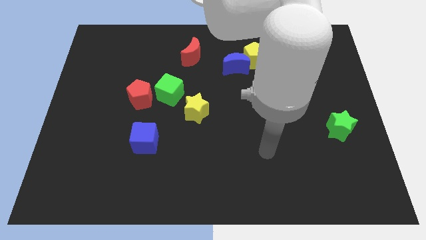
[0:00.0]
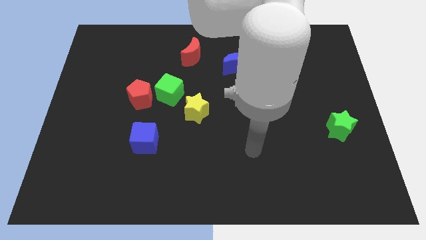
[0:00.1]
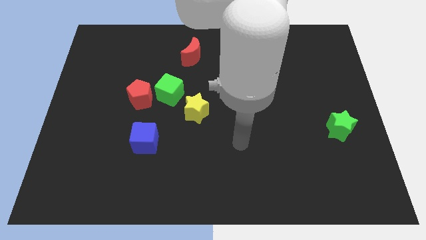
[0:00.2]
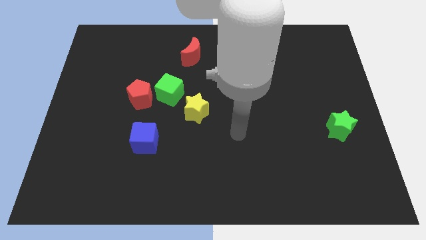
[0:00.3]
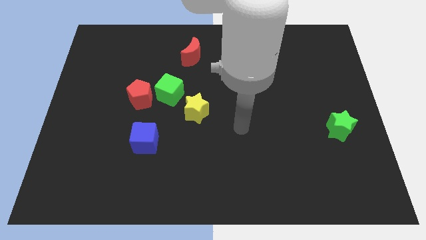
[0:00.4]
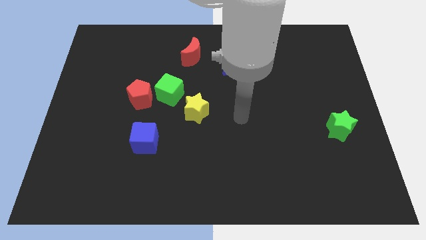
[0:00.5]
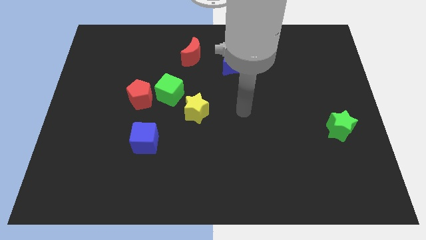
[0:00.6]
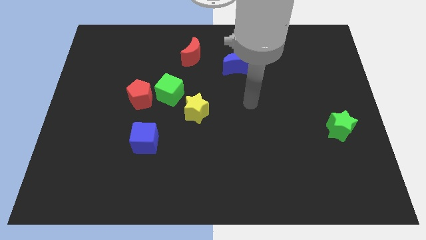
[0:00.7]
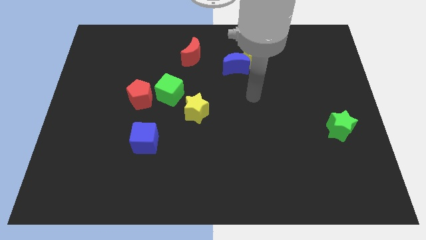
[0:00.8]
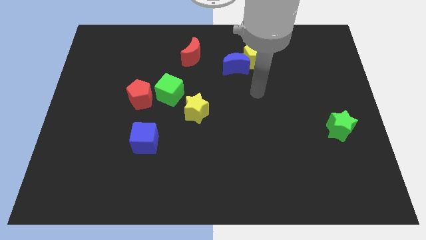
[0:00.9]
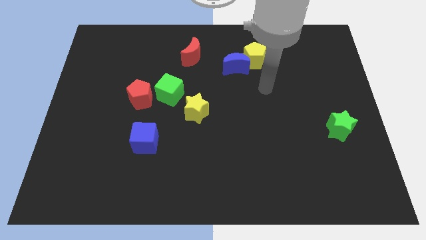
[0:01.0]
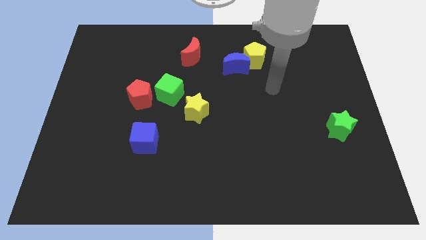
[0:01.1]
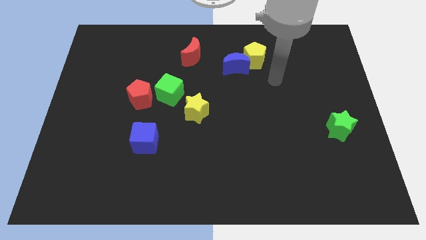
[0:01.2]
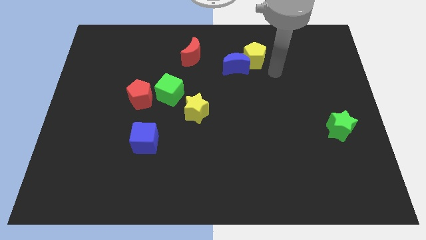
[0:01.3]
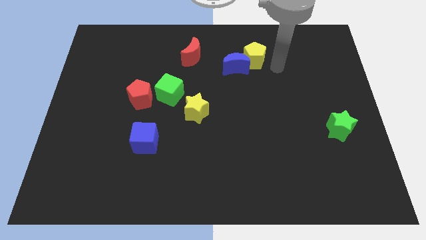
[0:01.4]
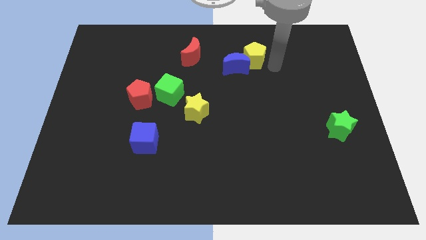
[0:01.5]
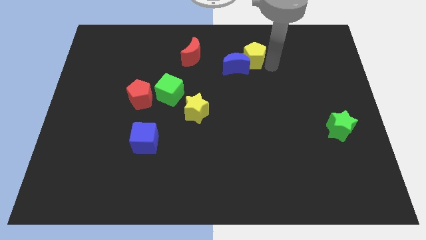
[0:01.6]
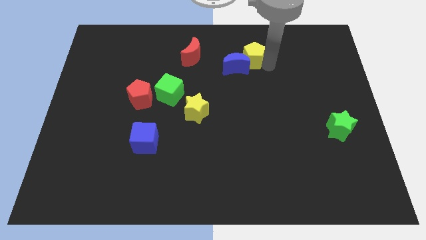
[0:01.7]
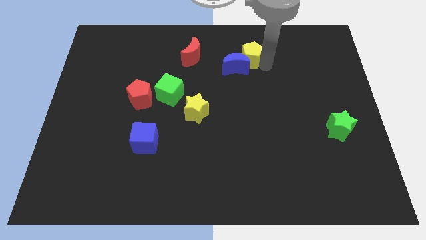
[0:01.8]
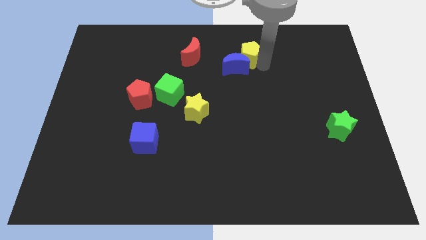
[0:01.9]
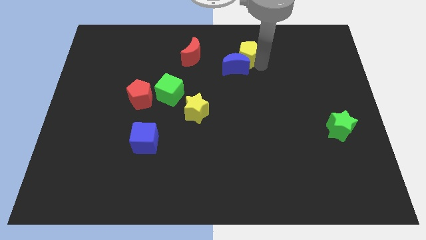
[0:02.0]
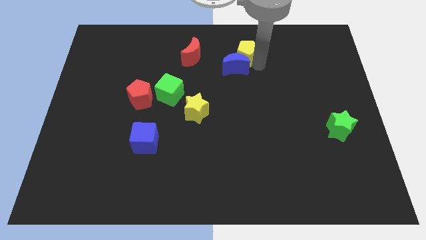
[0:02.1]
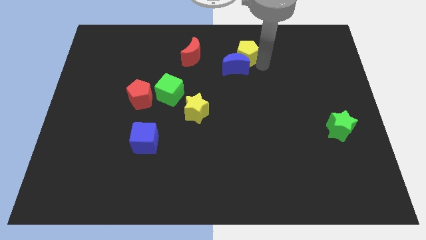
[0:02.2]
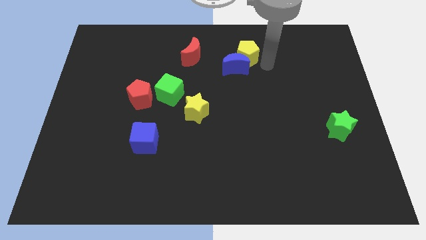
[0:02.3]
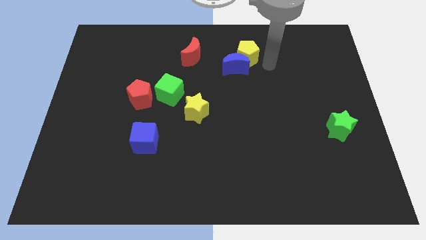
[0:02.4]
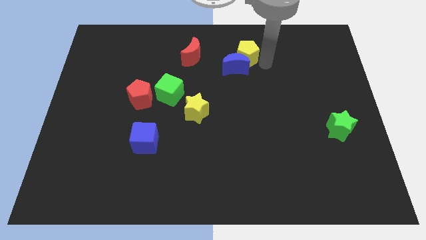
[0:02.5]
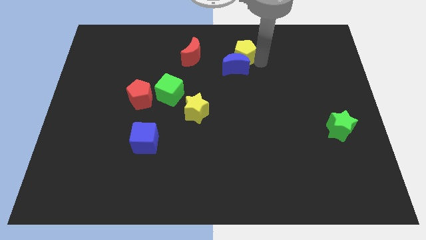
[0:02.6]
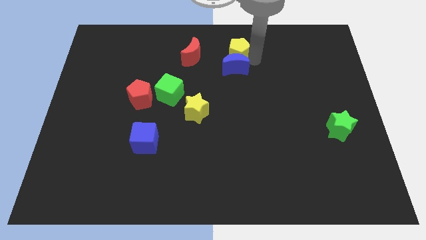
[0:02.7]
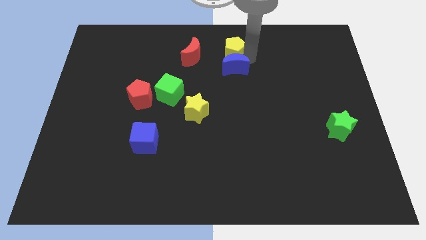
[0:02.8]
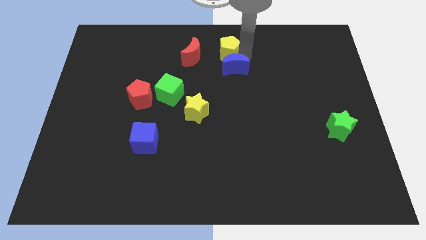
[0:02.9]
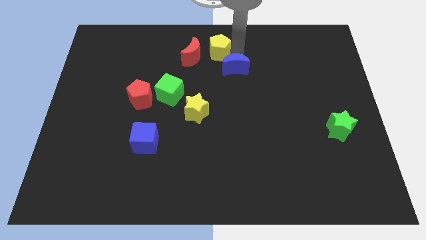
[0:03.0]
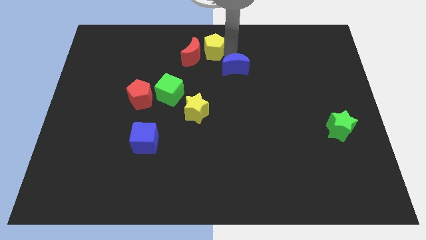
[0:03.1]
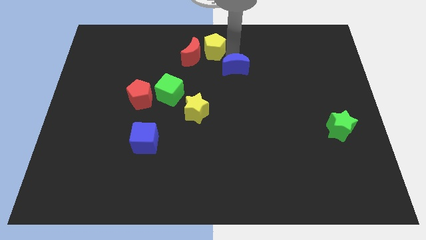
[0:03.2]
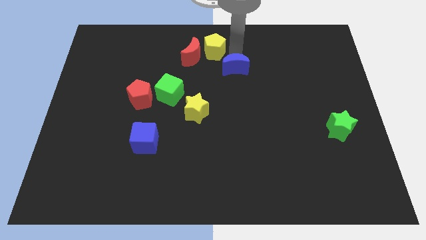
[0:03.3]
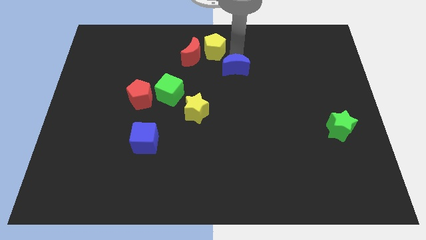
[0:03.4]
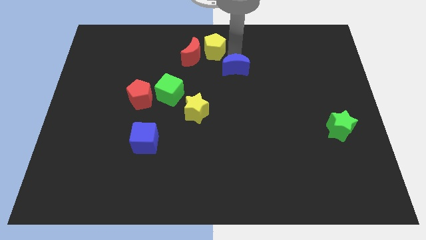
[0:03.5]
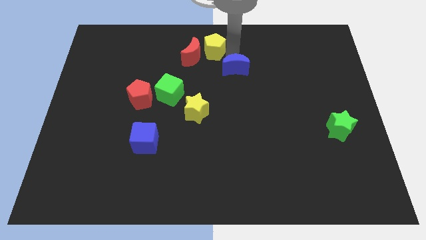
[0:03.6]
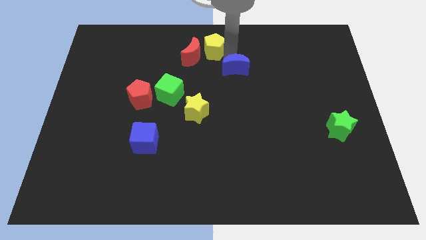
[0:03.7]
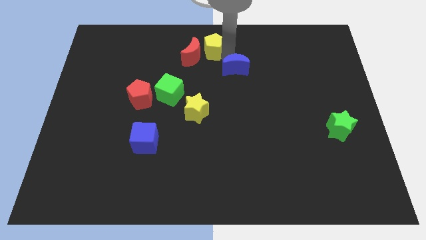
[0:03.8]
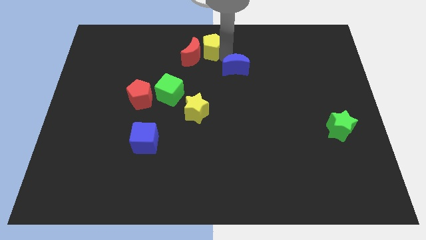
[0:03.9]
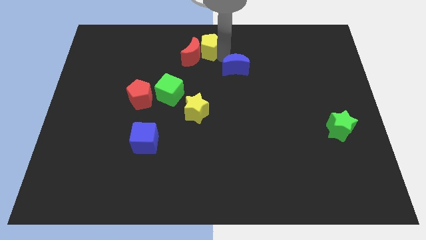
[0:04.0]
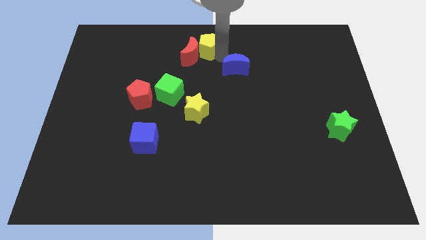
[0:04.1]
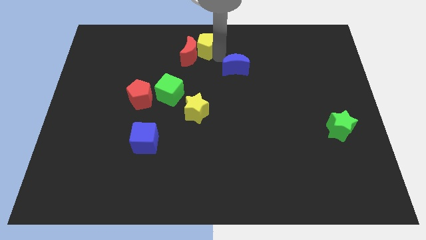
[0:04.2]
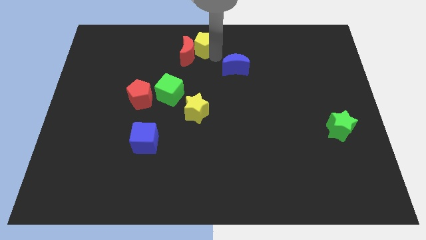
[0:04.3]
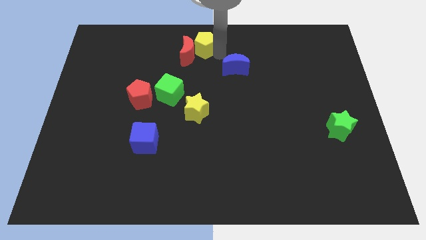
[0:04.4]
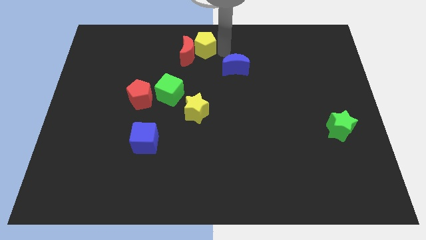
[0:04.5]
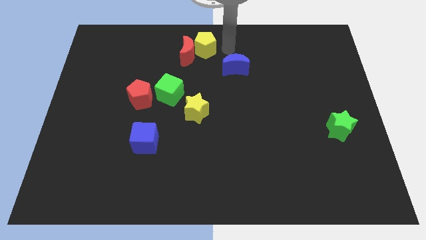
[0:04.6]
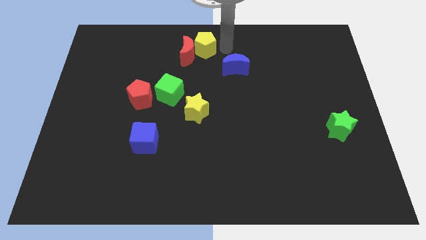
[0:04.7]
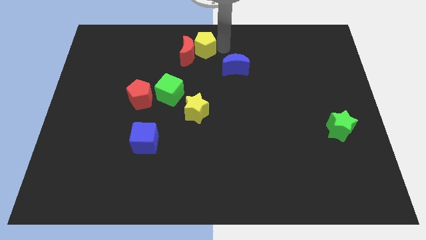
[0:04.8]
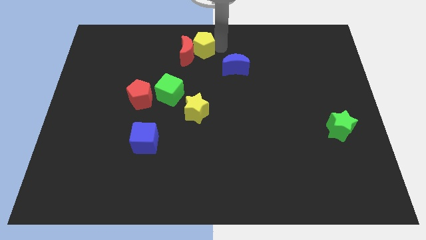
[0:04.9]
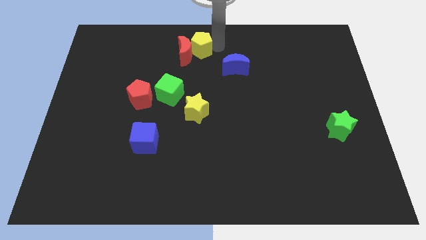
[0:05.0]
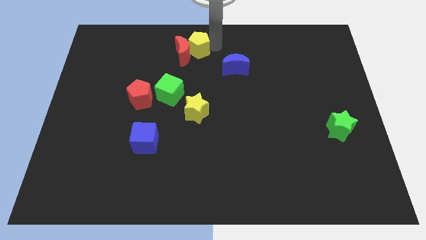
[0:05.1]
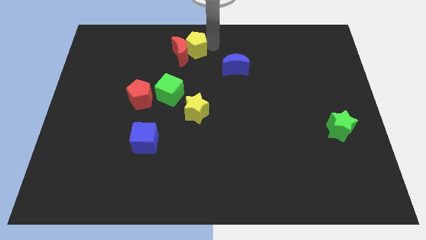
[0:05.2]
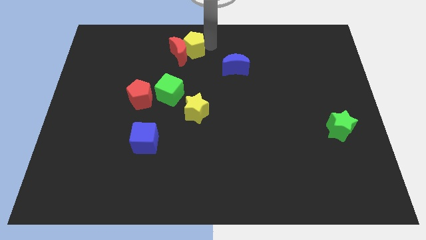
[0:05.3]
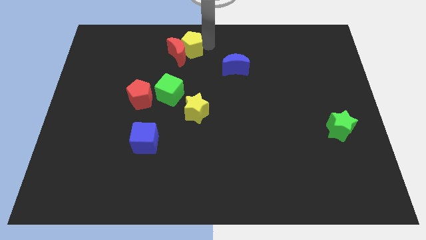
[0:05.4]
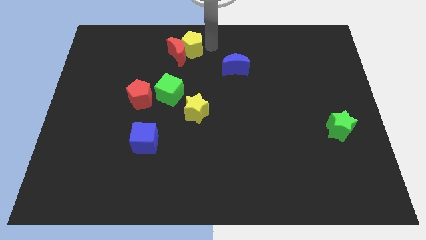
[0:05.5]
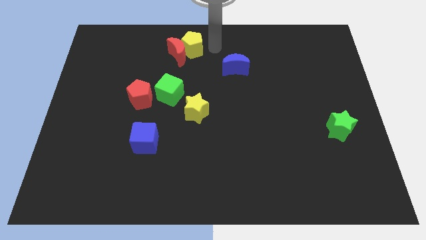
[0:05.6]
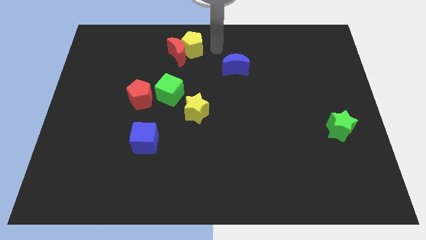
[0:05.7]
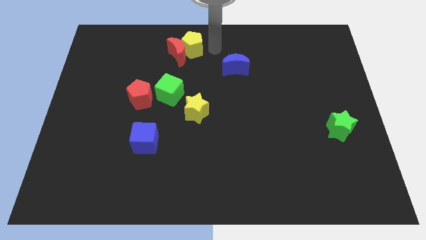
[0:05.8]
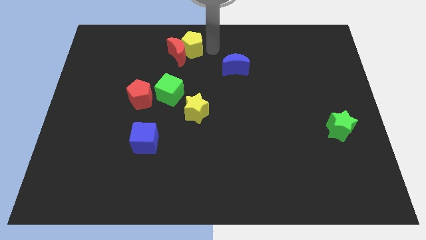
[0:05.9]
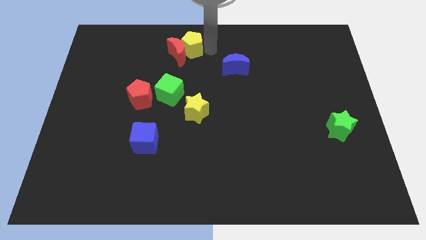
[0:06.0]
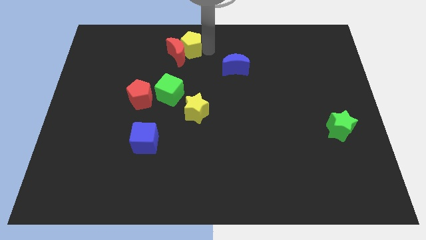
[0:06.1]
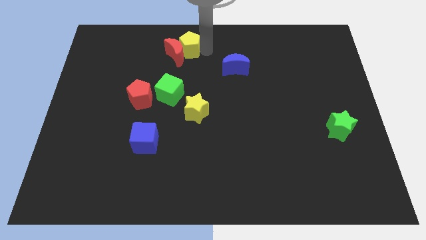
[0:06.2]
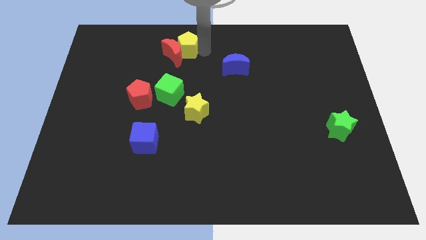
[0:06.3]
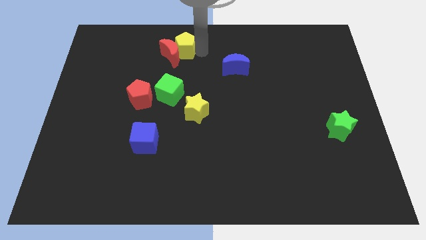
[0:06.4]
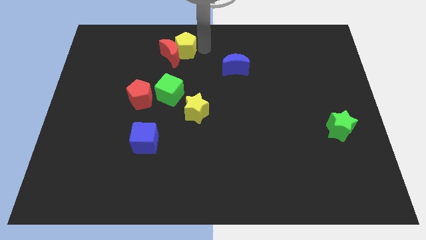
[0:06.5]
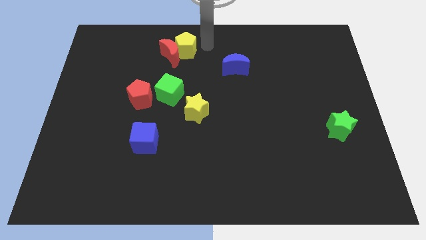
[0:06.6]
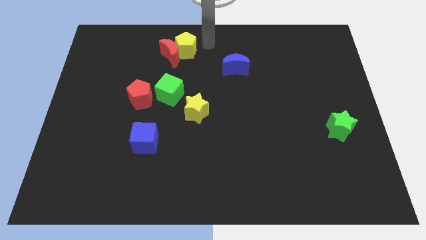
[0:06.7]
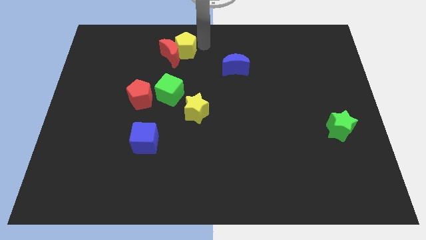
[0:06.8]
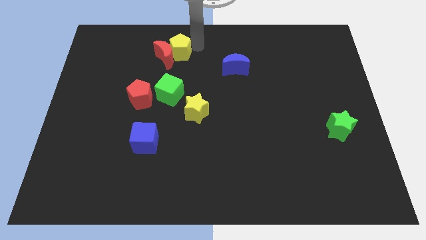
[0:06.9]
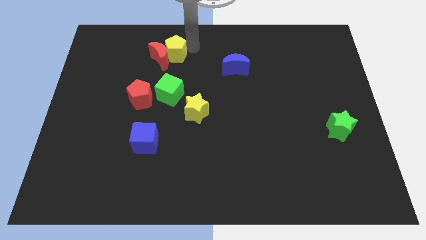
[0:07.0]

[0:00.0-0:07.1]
move the yellow pentagon to the left

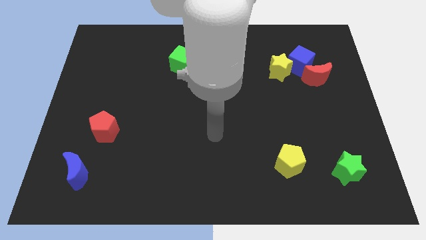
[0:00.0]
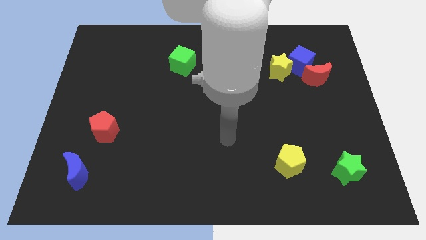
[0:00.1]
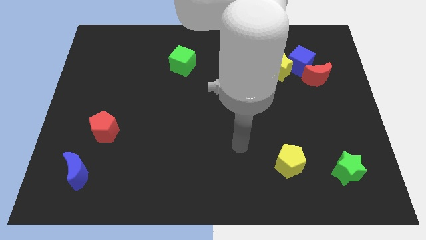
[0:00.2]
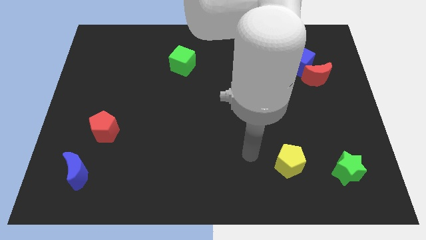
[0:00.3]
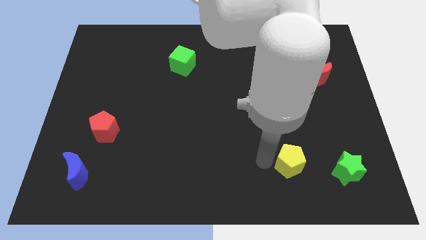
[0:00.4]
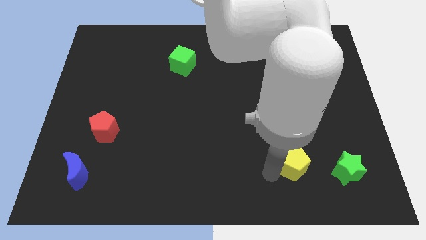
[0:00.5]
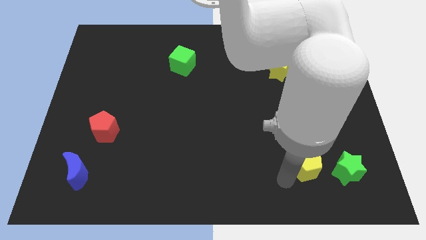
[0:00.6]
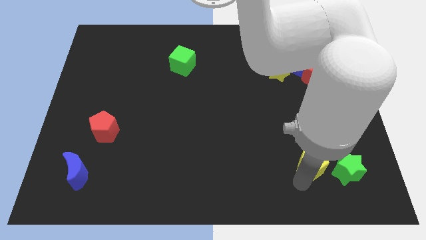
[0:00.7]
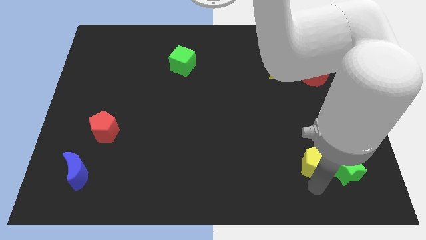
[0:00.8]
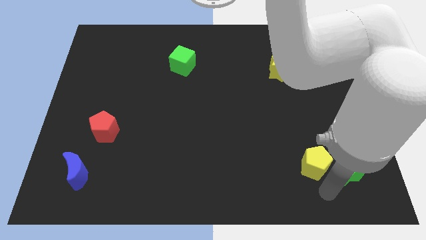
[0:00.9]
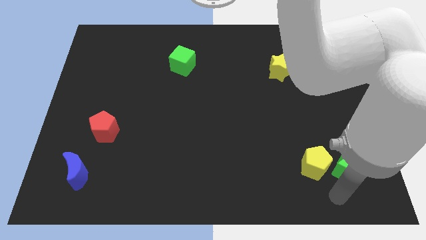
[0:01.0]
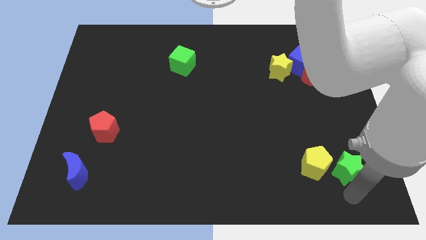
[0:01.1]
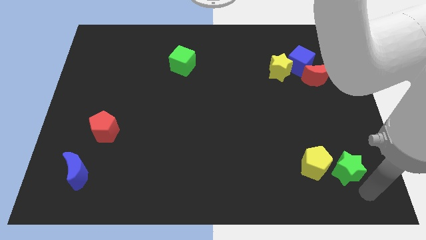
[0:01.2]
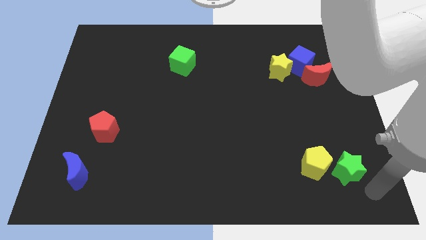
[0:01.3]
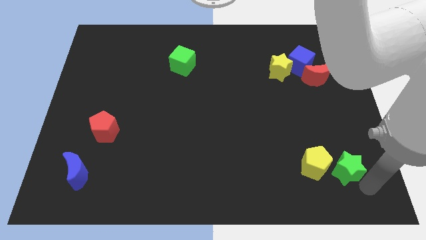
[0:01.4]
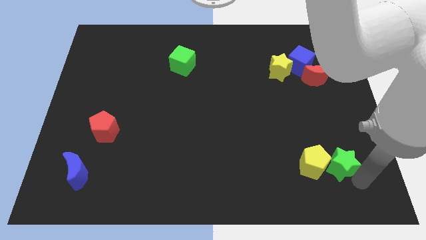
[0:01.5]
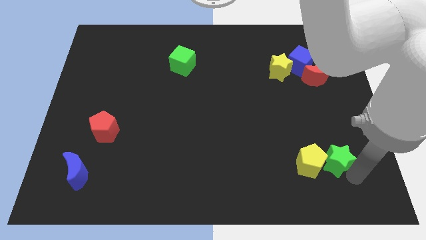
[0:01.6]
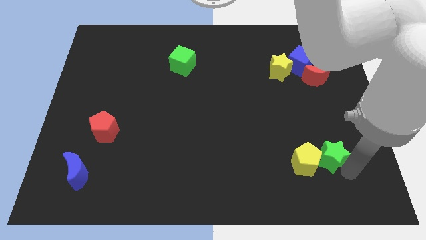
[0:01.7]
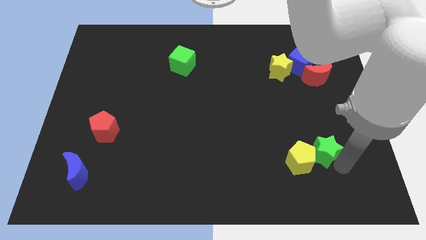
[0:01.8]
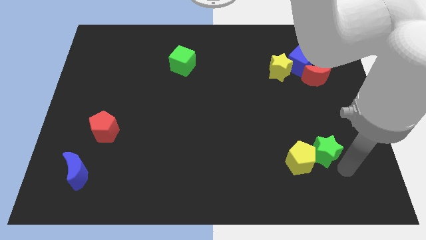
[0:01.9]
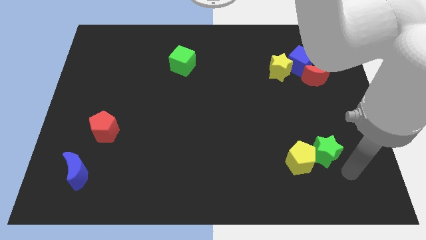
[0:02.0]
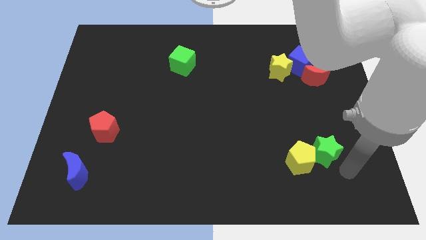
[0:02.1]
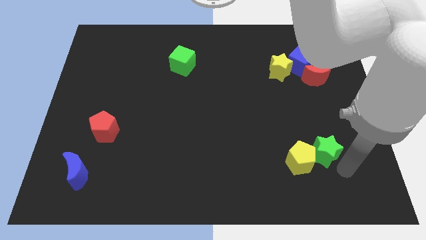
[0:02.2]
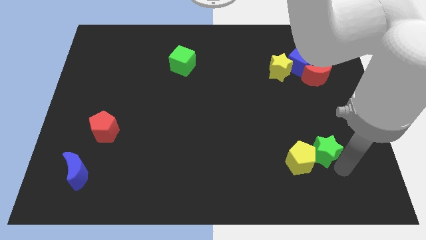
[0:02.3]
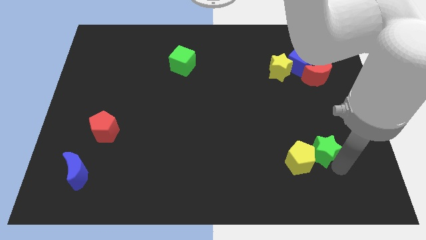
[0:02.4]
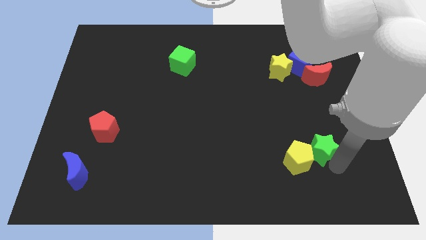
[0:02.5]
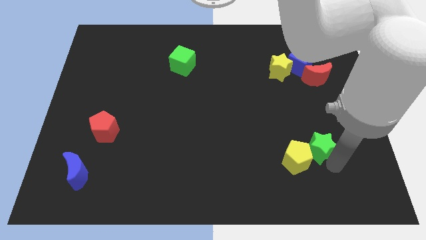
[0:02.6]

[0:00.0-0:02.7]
push the green star a little bit up and left diagonally
